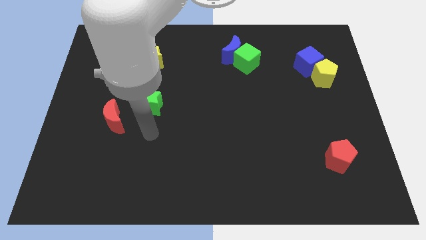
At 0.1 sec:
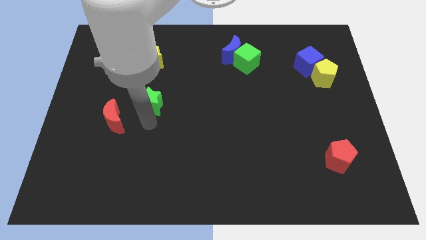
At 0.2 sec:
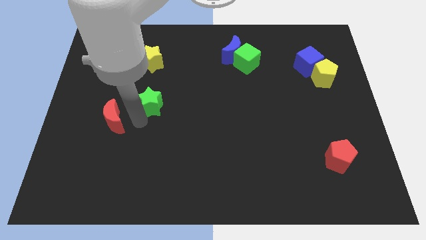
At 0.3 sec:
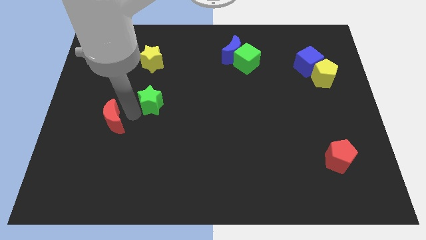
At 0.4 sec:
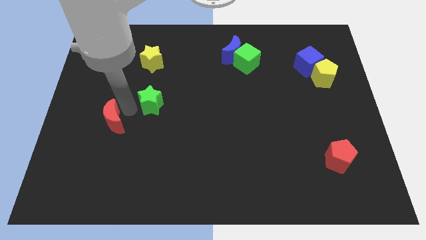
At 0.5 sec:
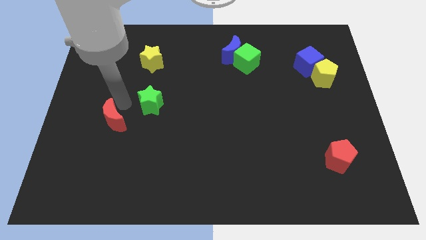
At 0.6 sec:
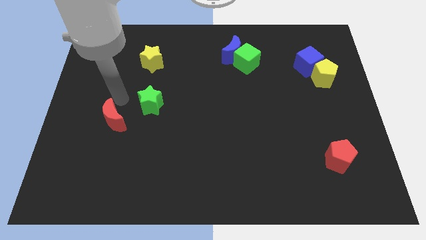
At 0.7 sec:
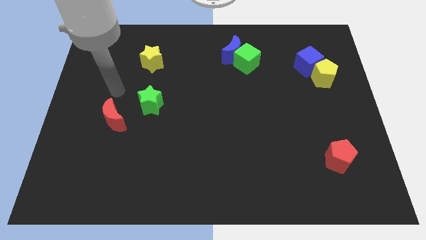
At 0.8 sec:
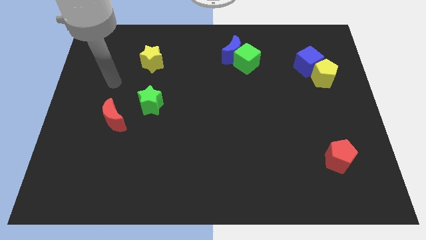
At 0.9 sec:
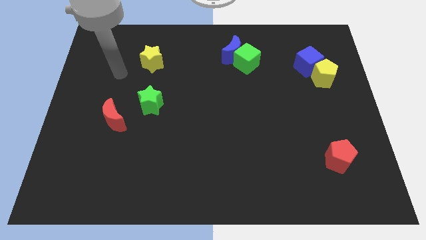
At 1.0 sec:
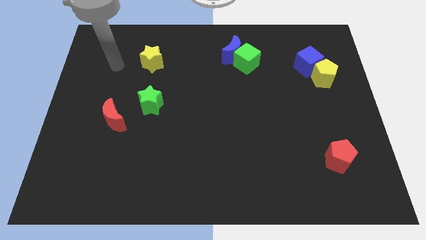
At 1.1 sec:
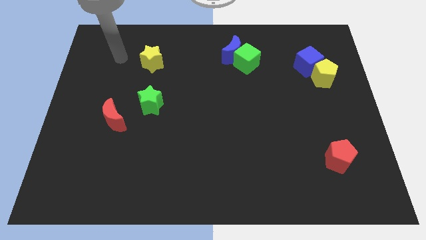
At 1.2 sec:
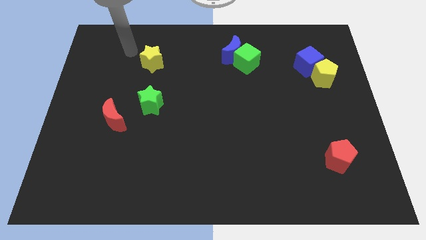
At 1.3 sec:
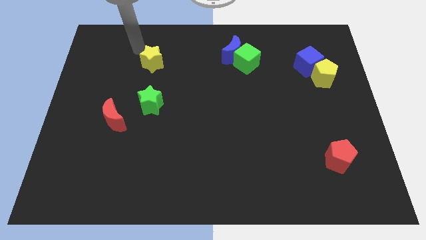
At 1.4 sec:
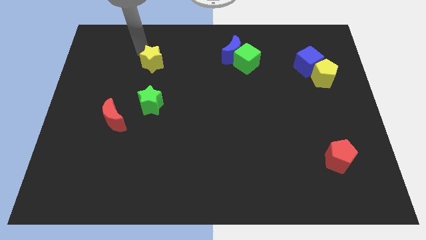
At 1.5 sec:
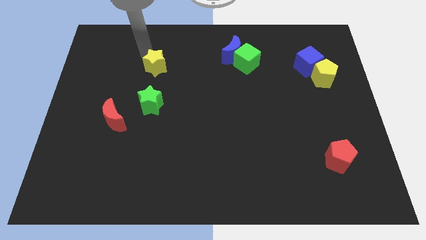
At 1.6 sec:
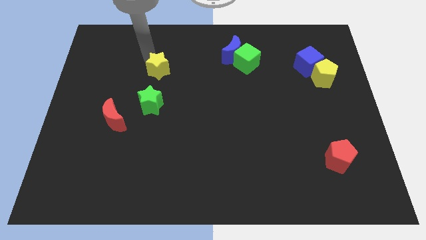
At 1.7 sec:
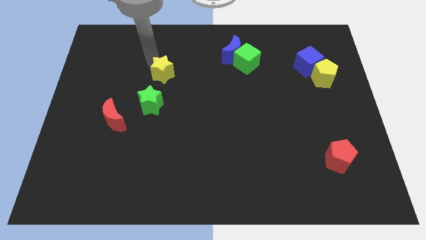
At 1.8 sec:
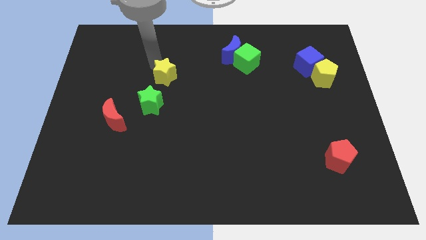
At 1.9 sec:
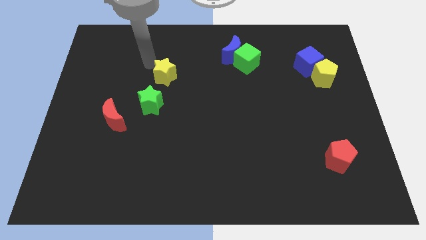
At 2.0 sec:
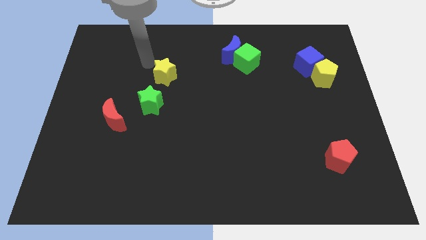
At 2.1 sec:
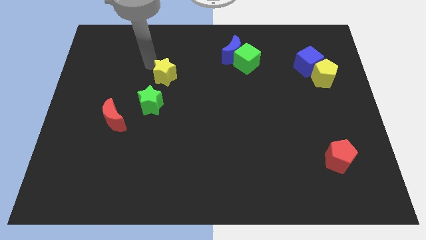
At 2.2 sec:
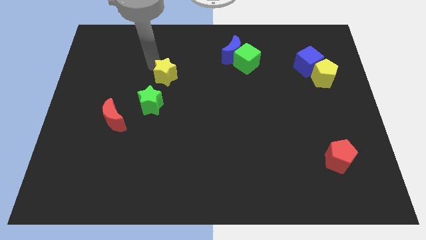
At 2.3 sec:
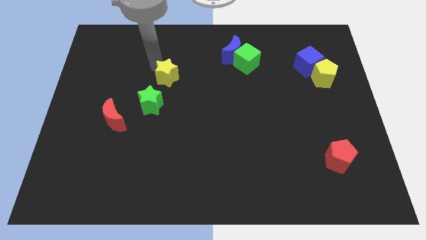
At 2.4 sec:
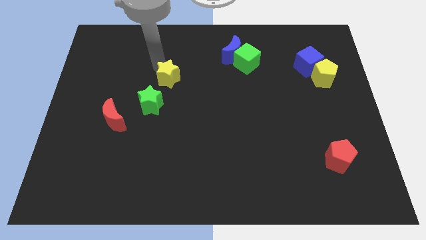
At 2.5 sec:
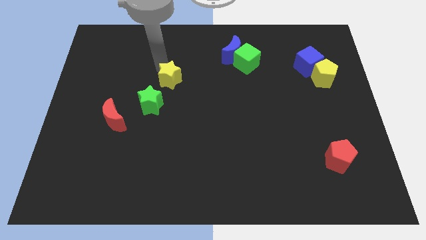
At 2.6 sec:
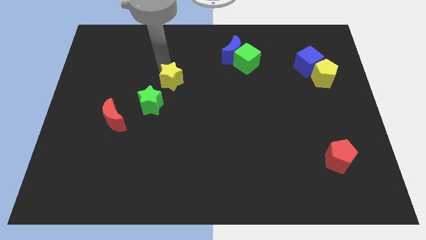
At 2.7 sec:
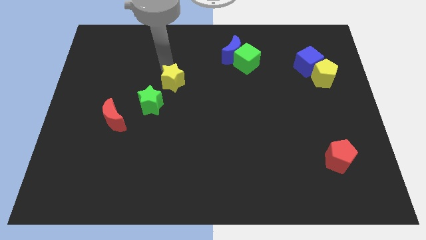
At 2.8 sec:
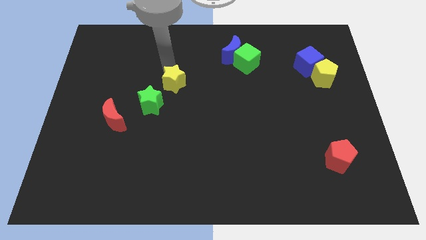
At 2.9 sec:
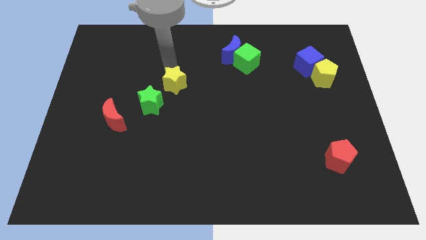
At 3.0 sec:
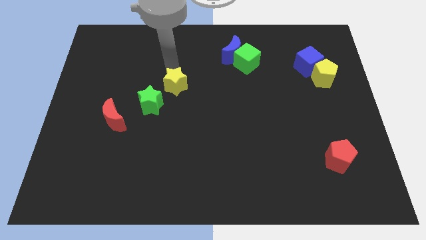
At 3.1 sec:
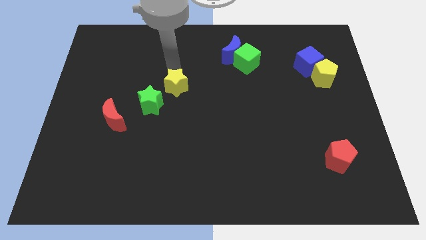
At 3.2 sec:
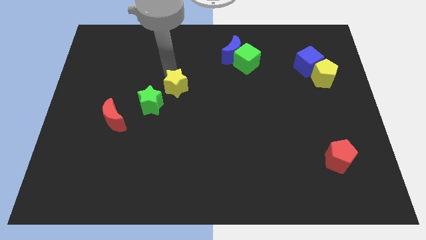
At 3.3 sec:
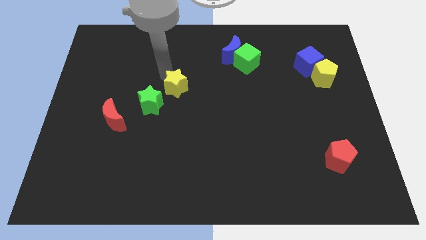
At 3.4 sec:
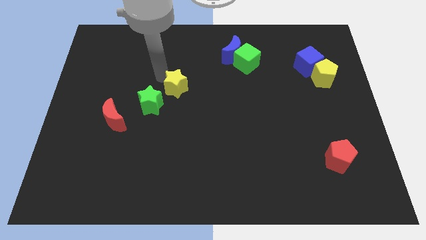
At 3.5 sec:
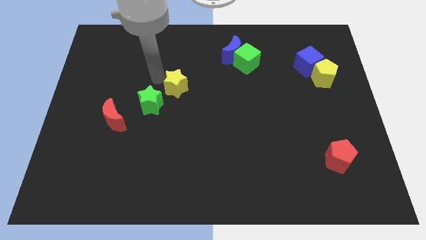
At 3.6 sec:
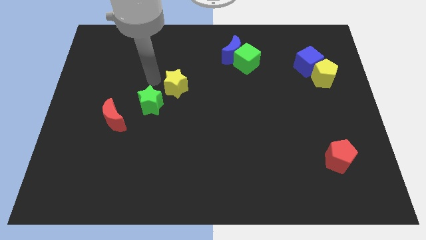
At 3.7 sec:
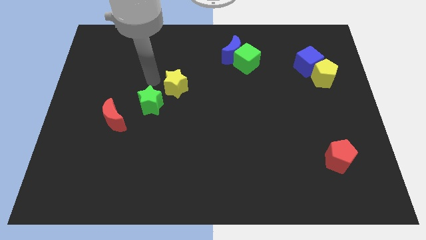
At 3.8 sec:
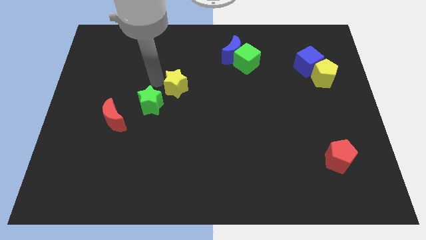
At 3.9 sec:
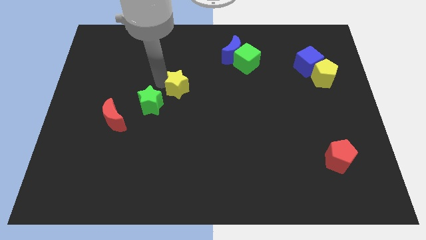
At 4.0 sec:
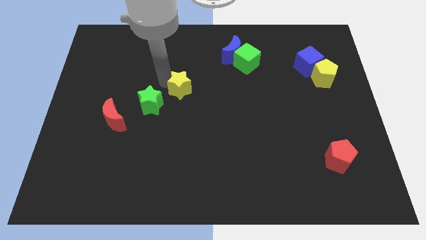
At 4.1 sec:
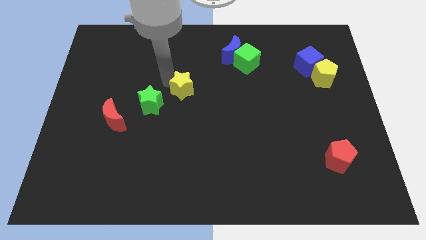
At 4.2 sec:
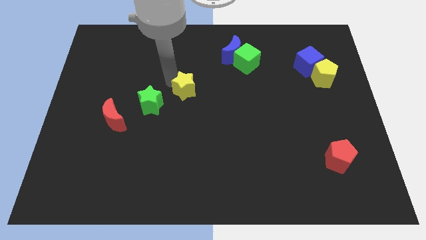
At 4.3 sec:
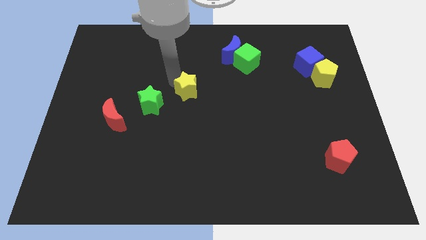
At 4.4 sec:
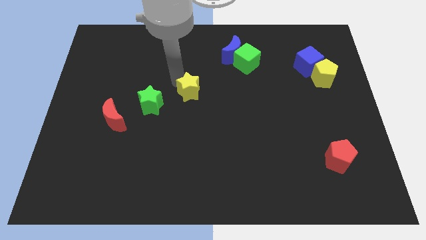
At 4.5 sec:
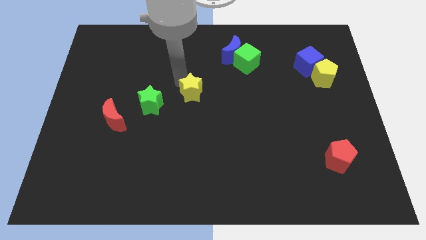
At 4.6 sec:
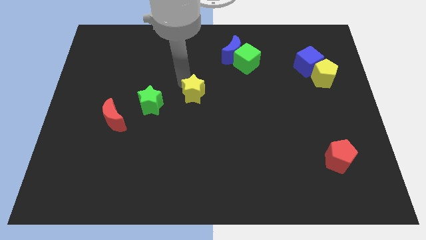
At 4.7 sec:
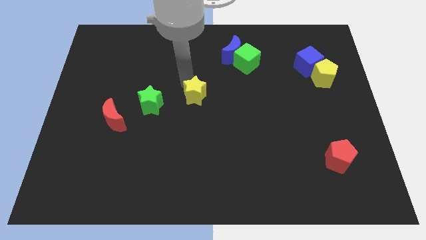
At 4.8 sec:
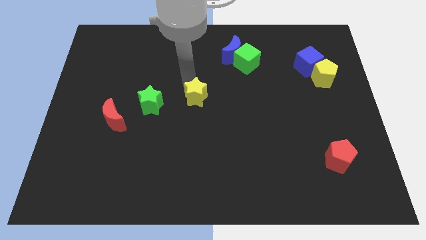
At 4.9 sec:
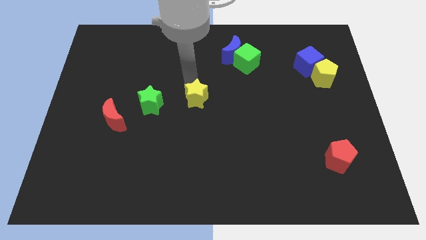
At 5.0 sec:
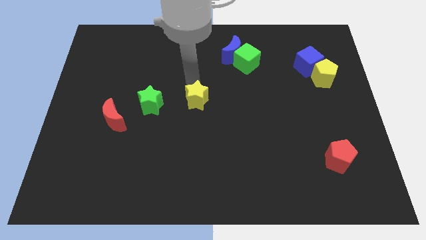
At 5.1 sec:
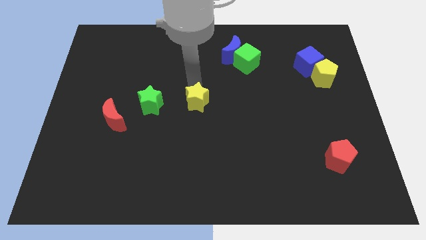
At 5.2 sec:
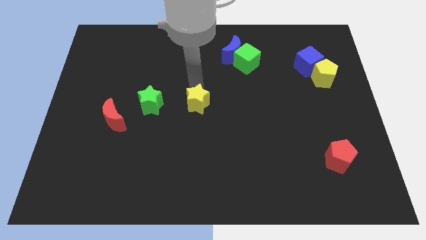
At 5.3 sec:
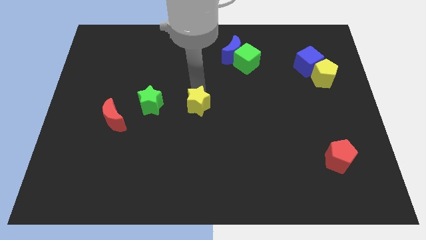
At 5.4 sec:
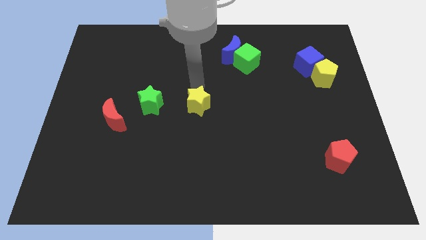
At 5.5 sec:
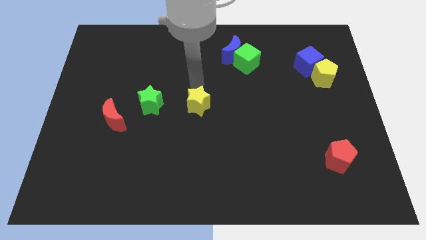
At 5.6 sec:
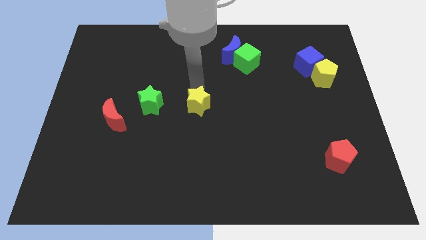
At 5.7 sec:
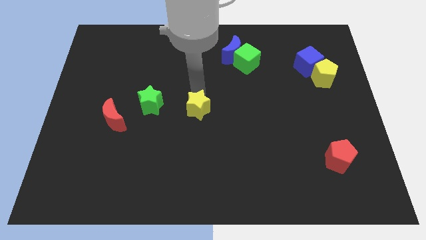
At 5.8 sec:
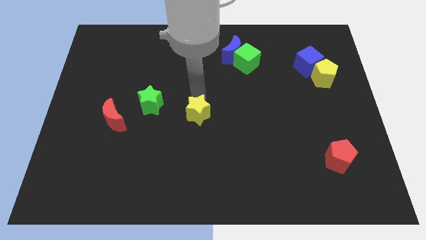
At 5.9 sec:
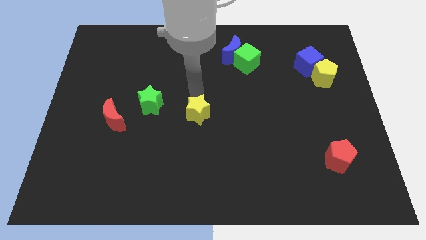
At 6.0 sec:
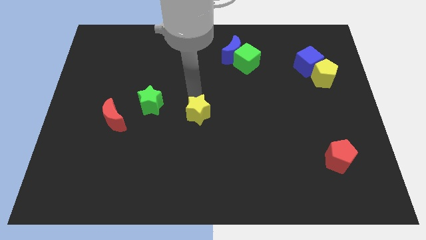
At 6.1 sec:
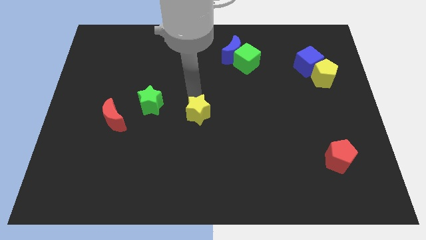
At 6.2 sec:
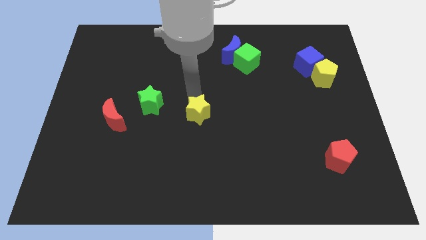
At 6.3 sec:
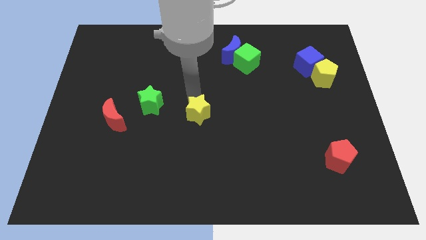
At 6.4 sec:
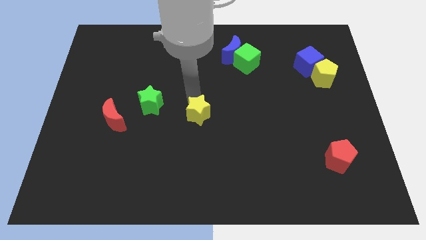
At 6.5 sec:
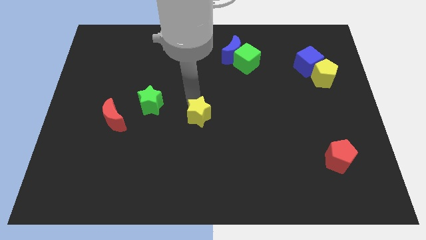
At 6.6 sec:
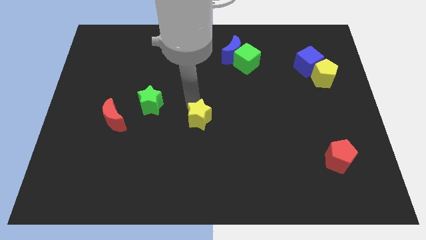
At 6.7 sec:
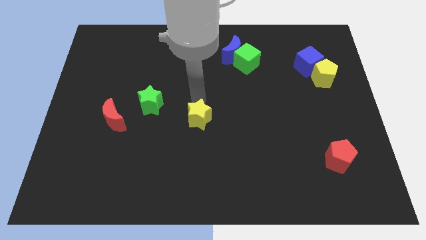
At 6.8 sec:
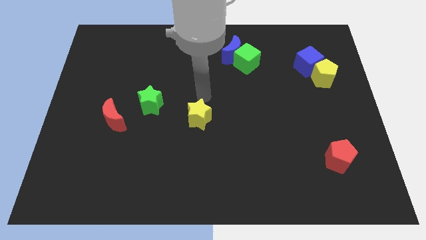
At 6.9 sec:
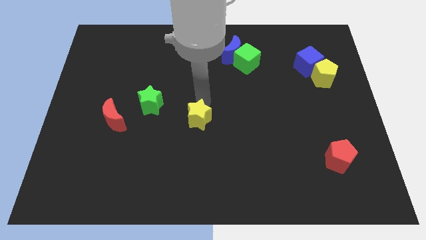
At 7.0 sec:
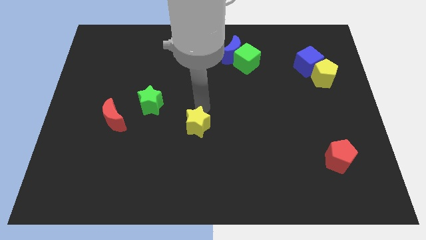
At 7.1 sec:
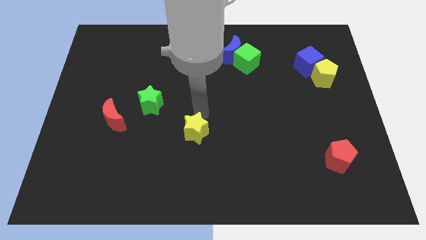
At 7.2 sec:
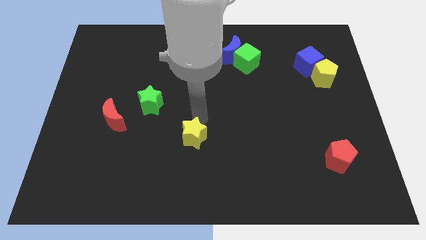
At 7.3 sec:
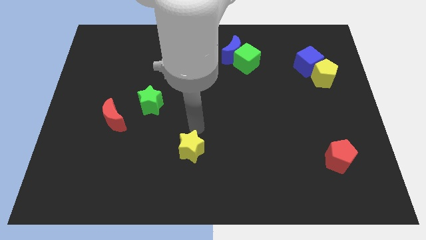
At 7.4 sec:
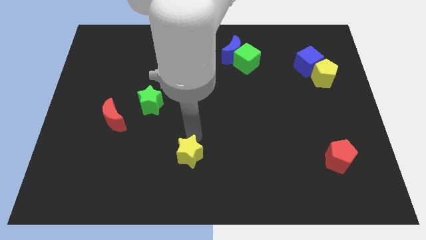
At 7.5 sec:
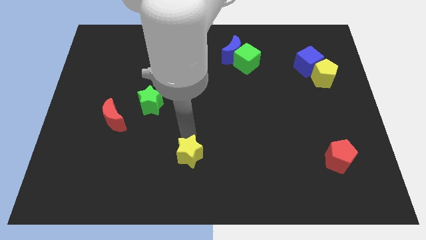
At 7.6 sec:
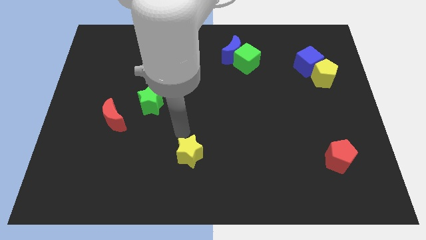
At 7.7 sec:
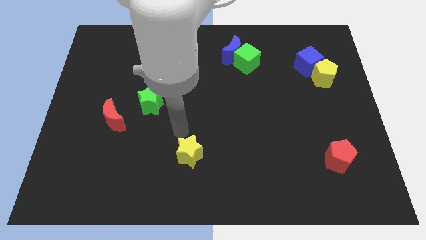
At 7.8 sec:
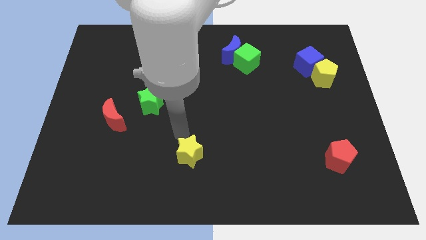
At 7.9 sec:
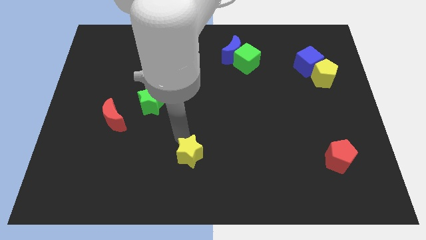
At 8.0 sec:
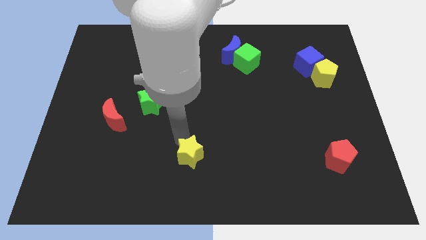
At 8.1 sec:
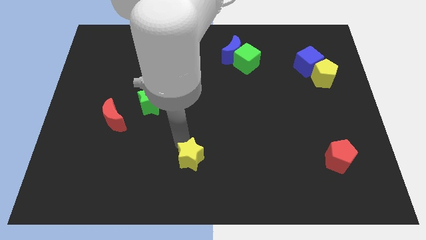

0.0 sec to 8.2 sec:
put the yellow star to the bottom
